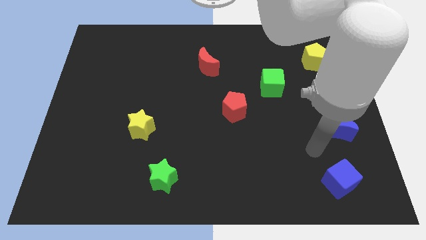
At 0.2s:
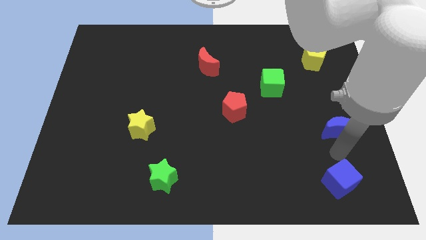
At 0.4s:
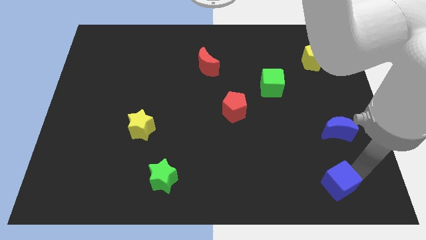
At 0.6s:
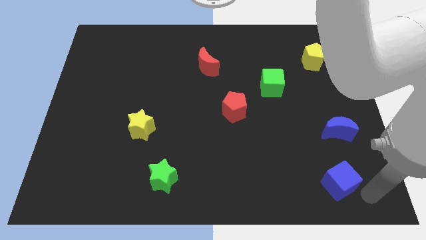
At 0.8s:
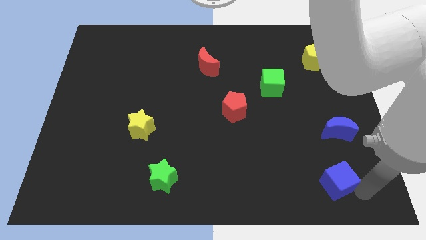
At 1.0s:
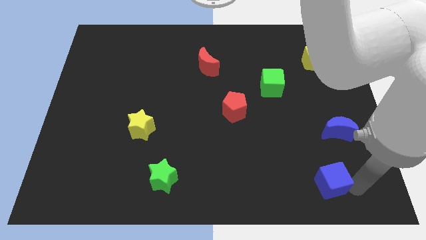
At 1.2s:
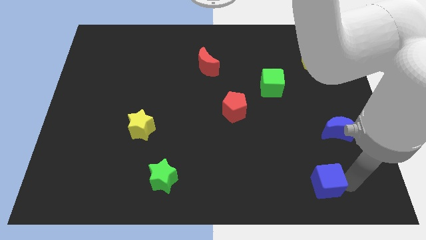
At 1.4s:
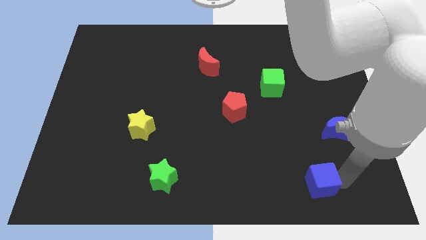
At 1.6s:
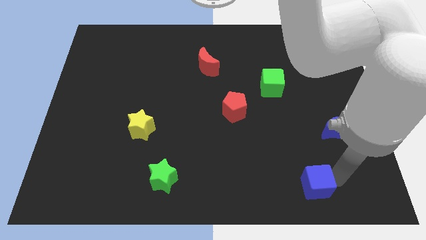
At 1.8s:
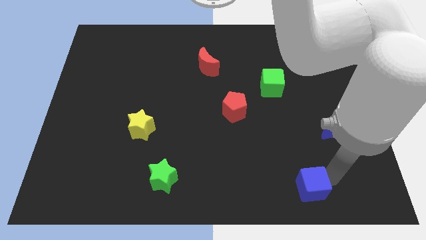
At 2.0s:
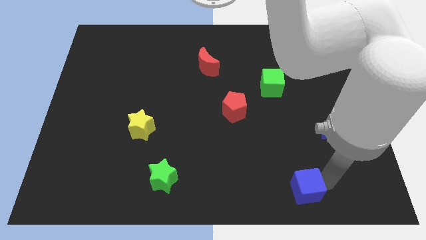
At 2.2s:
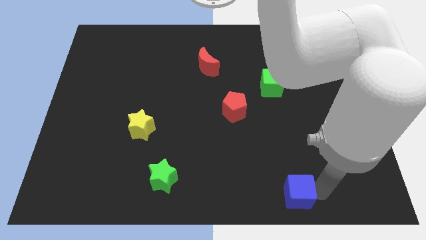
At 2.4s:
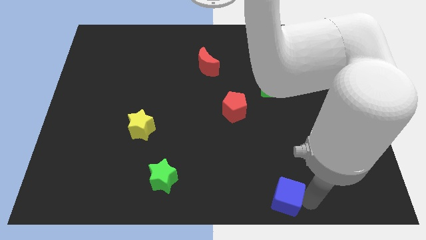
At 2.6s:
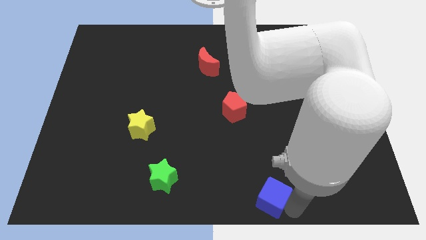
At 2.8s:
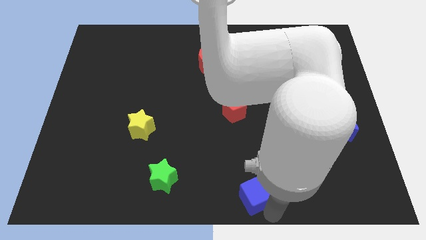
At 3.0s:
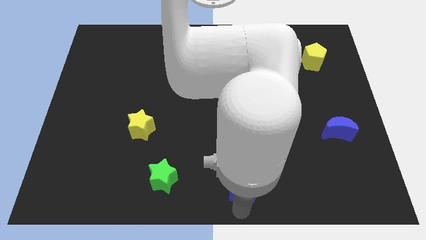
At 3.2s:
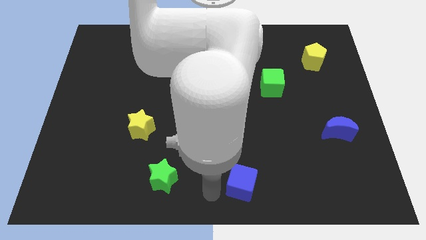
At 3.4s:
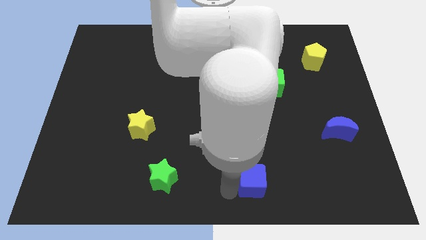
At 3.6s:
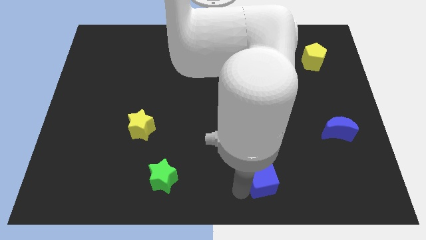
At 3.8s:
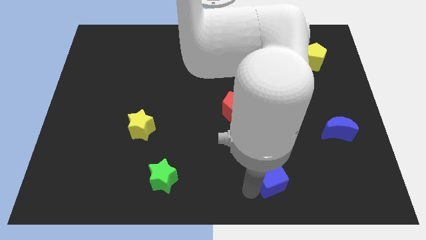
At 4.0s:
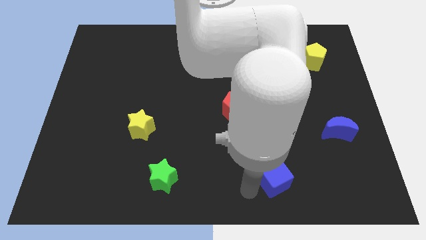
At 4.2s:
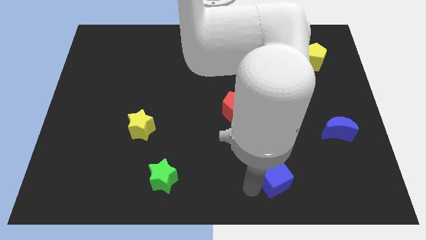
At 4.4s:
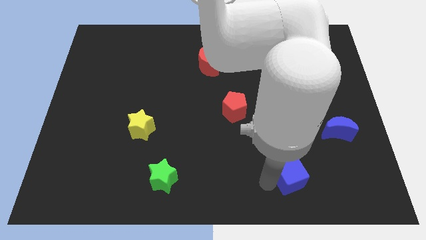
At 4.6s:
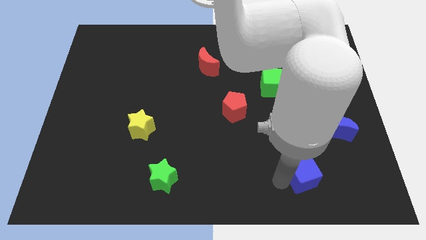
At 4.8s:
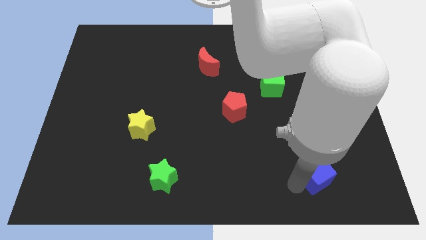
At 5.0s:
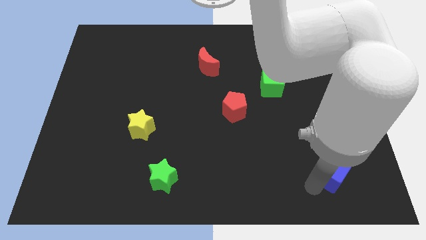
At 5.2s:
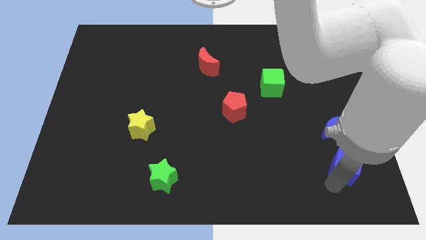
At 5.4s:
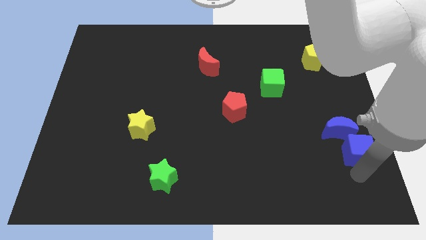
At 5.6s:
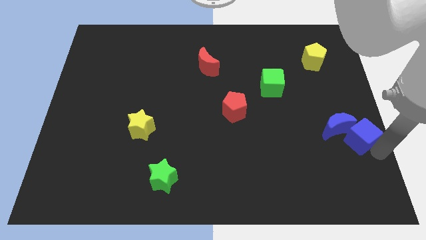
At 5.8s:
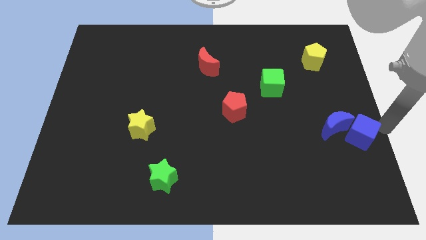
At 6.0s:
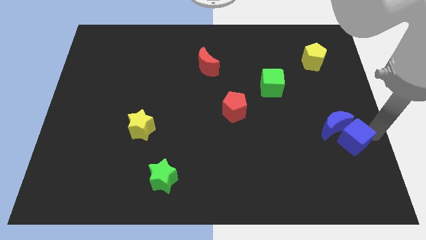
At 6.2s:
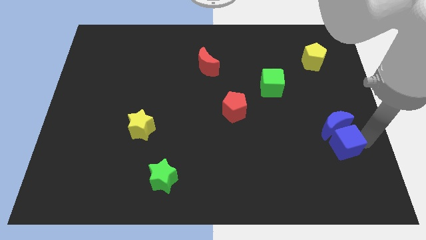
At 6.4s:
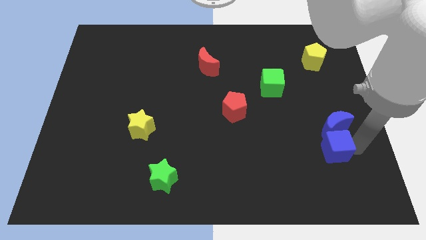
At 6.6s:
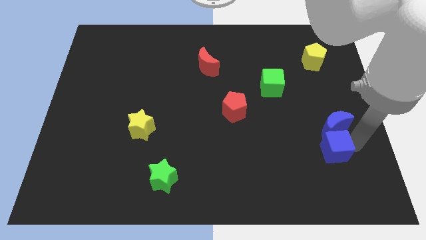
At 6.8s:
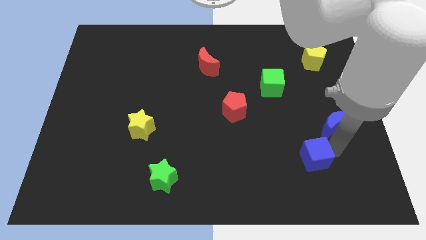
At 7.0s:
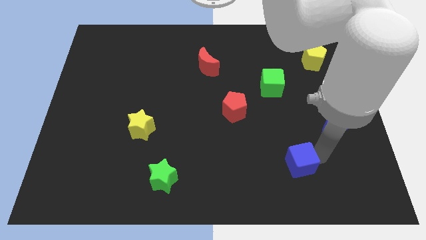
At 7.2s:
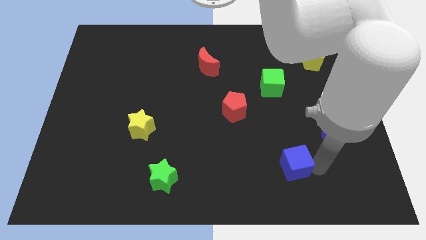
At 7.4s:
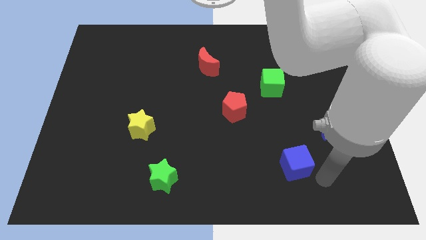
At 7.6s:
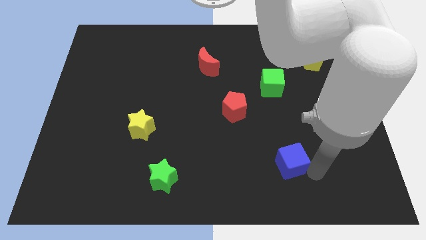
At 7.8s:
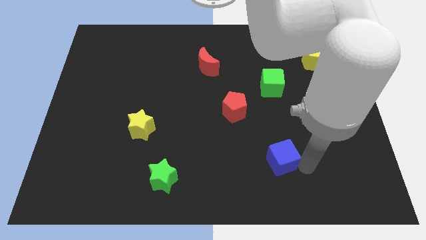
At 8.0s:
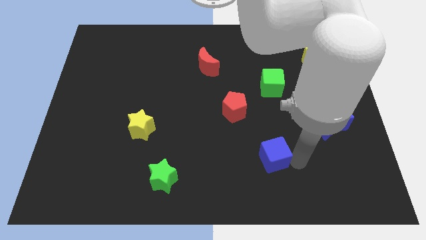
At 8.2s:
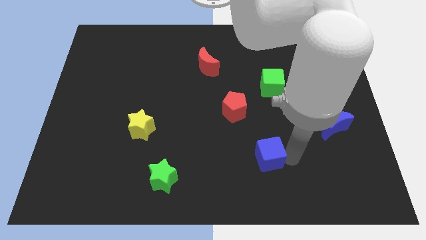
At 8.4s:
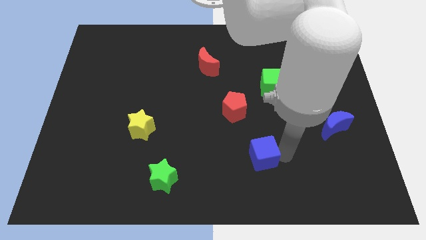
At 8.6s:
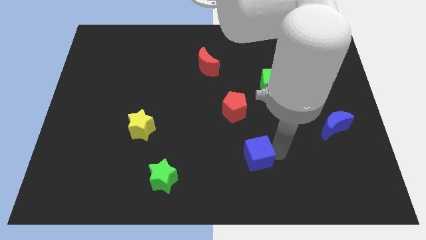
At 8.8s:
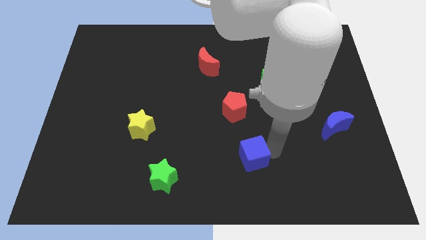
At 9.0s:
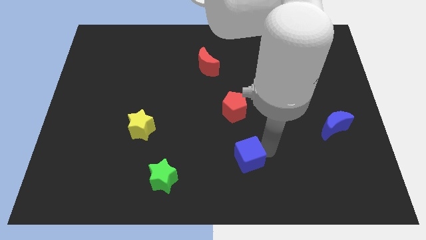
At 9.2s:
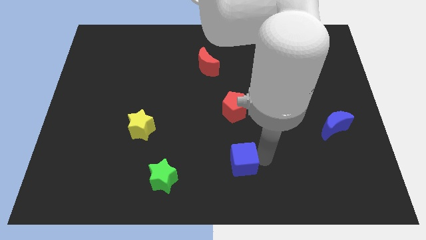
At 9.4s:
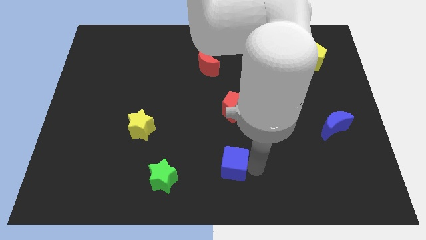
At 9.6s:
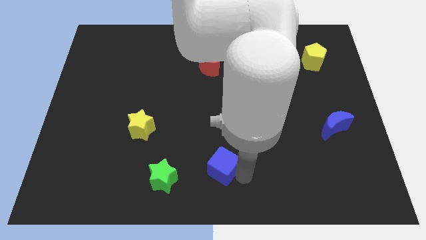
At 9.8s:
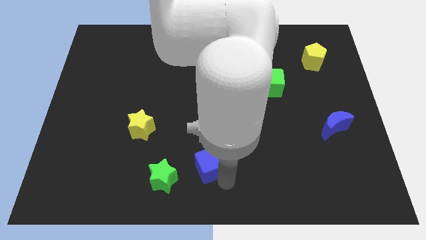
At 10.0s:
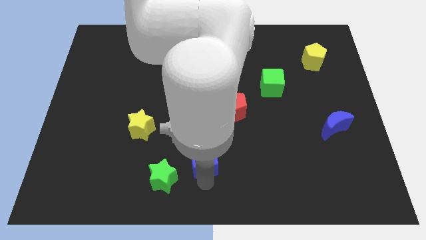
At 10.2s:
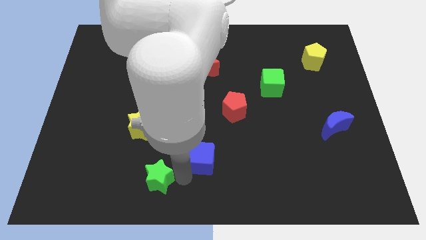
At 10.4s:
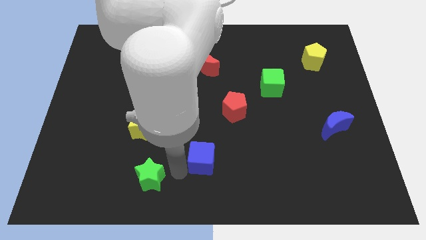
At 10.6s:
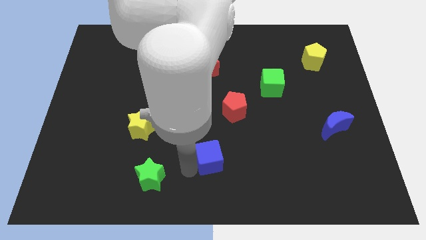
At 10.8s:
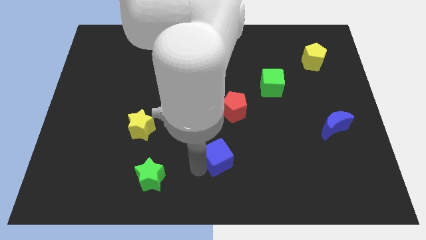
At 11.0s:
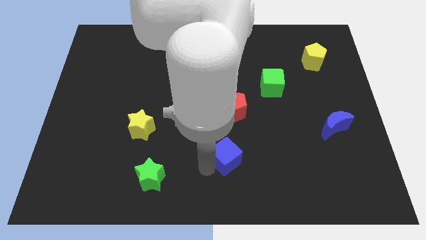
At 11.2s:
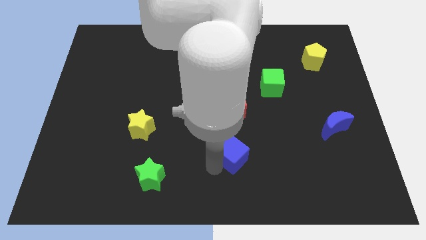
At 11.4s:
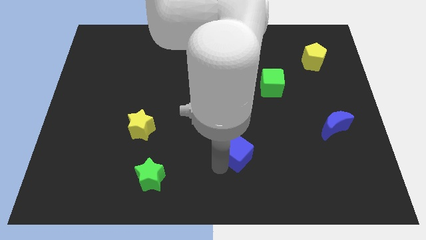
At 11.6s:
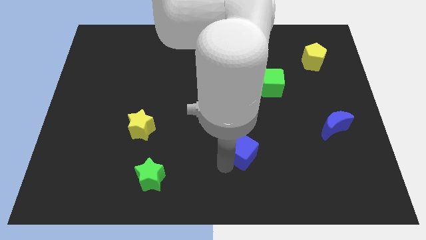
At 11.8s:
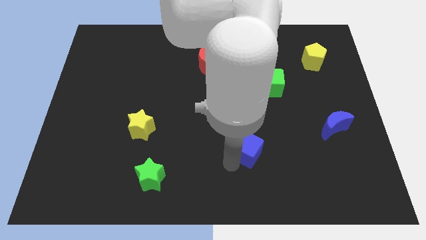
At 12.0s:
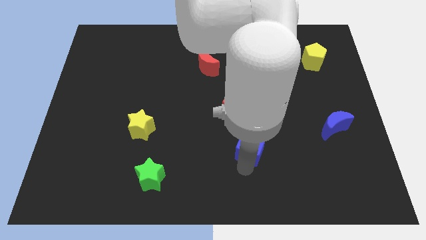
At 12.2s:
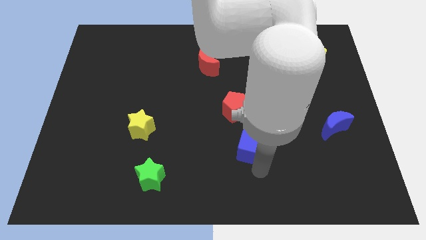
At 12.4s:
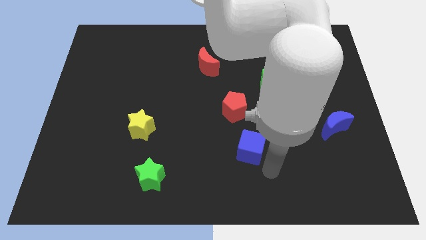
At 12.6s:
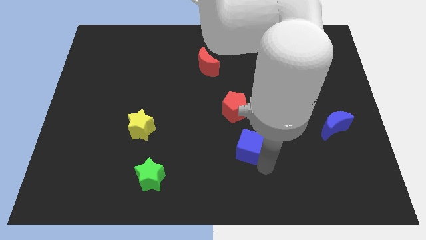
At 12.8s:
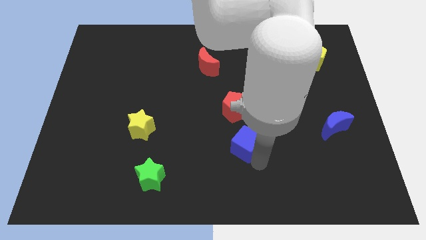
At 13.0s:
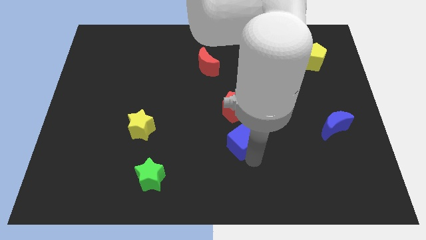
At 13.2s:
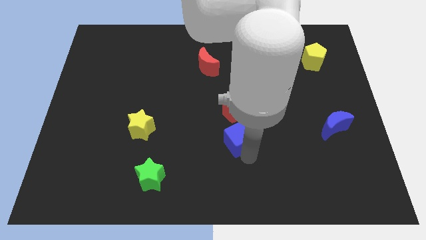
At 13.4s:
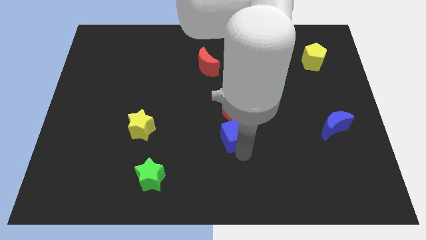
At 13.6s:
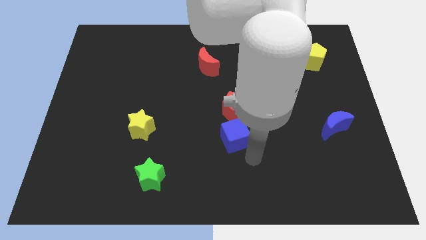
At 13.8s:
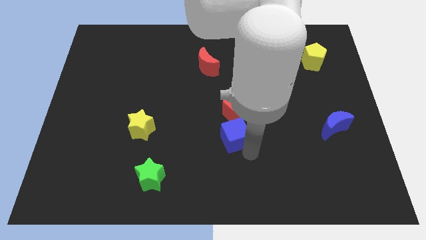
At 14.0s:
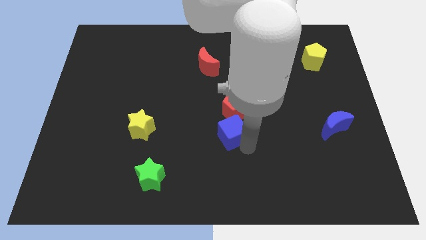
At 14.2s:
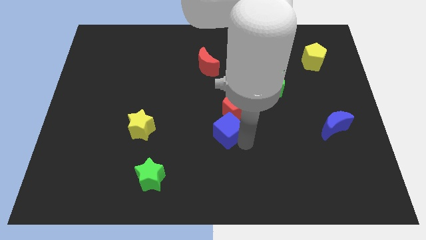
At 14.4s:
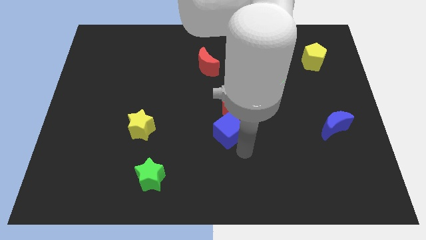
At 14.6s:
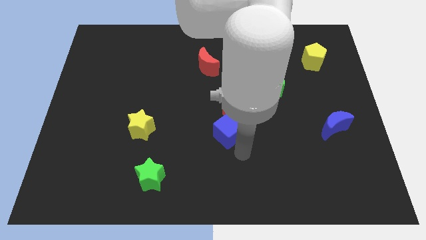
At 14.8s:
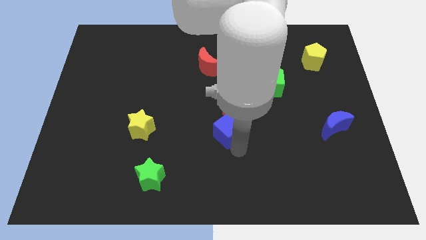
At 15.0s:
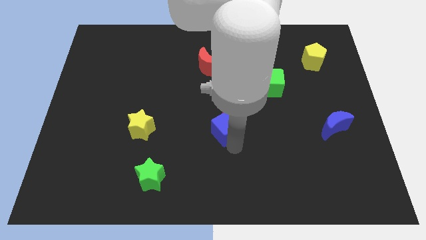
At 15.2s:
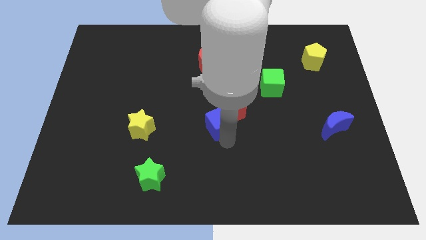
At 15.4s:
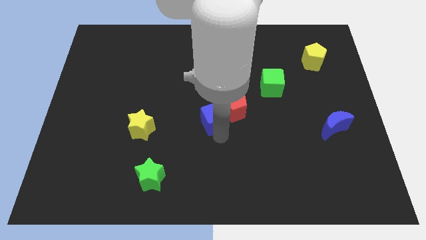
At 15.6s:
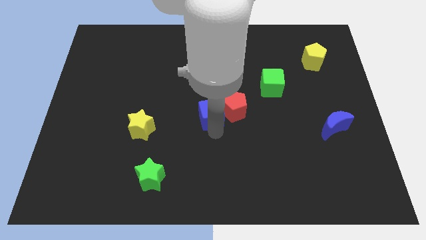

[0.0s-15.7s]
put the blue cube below the red moon
